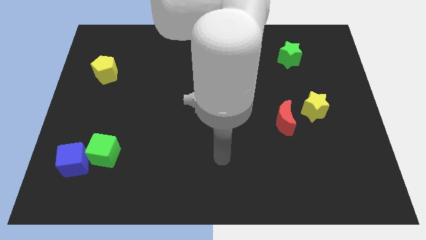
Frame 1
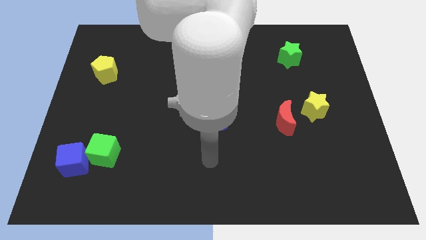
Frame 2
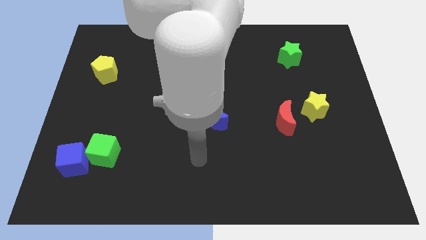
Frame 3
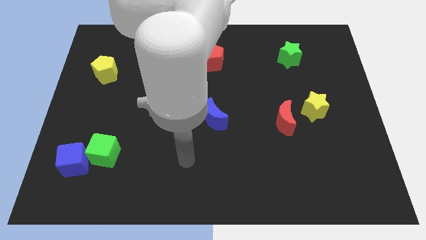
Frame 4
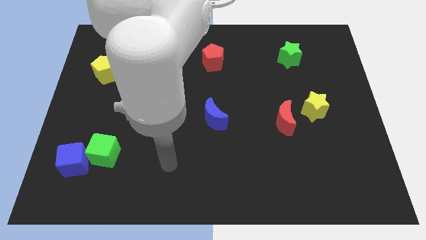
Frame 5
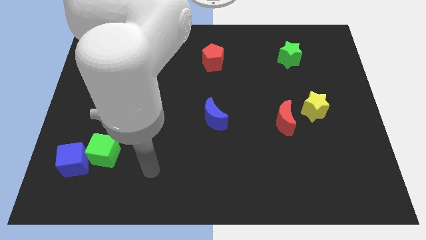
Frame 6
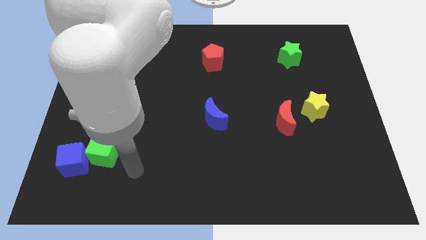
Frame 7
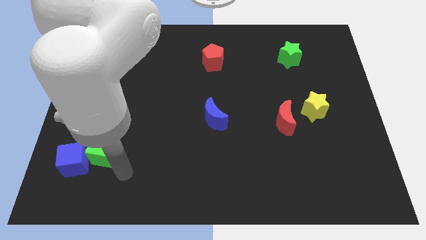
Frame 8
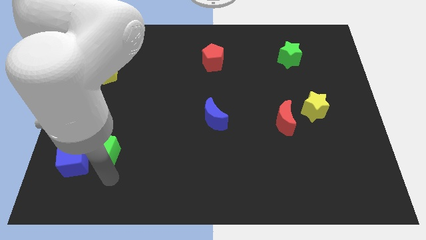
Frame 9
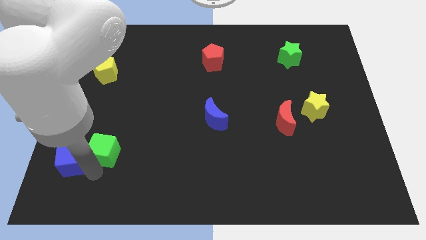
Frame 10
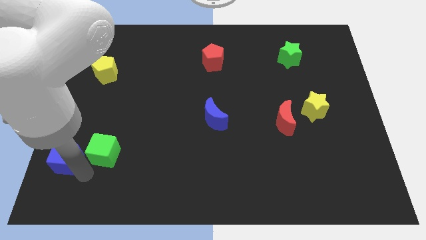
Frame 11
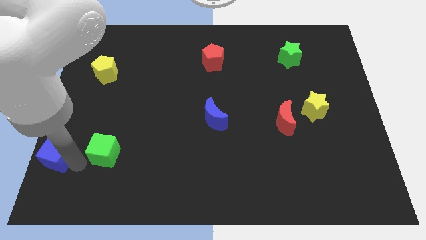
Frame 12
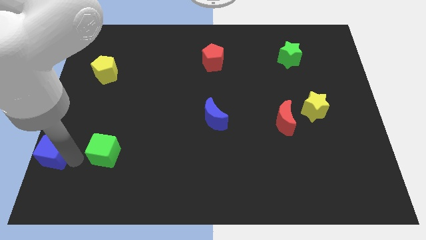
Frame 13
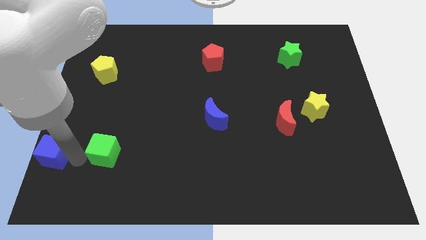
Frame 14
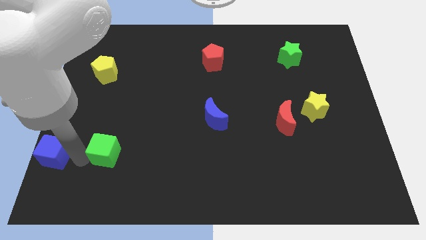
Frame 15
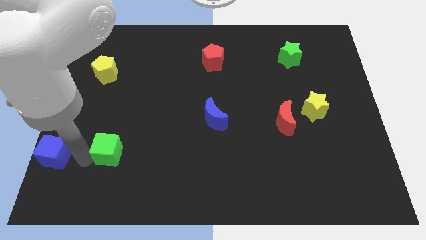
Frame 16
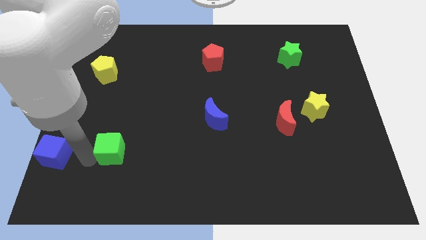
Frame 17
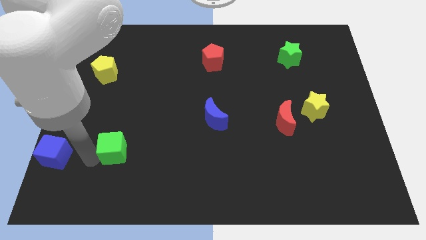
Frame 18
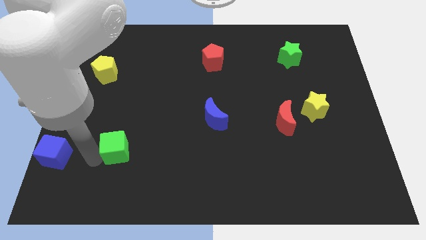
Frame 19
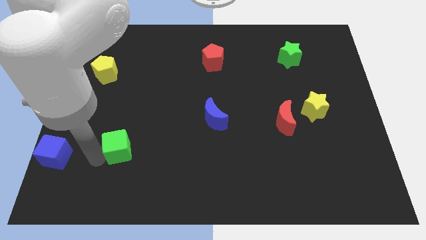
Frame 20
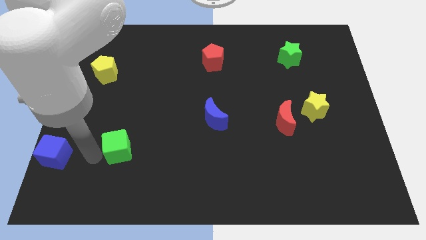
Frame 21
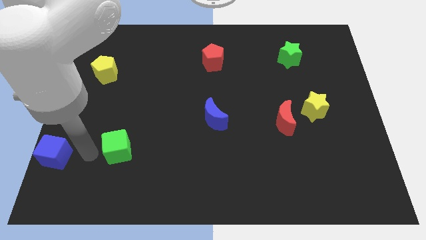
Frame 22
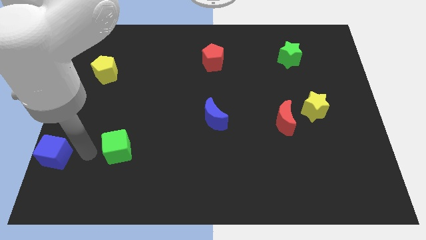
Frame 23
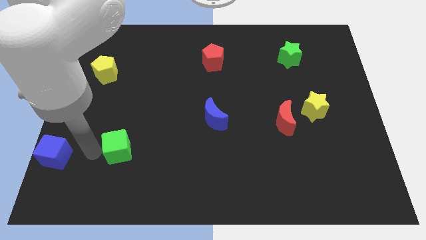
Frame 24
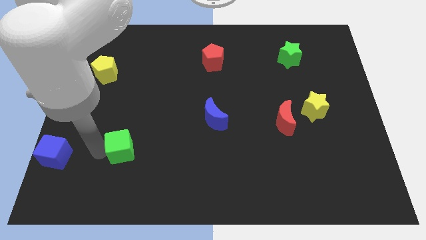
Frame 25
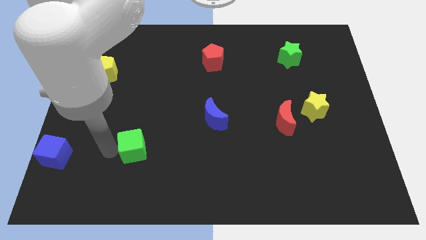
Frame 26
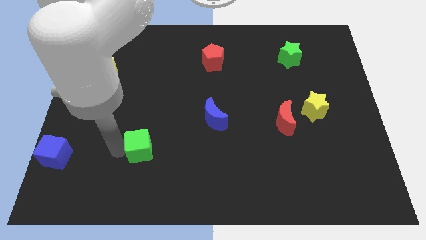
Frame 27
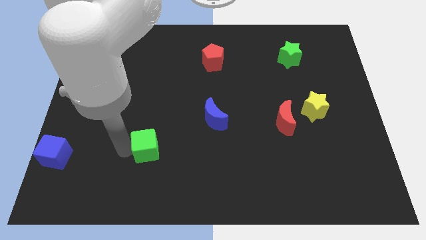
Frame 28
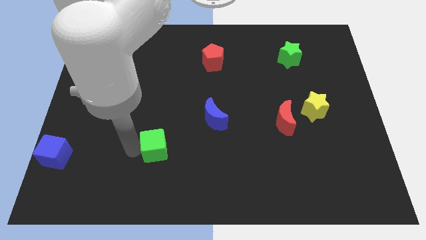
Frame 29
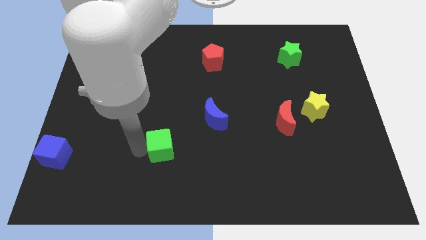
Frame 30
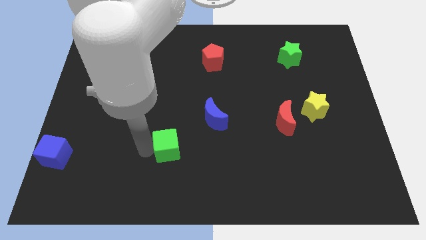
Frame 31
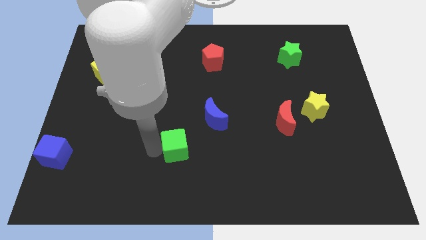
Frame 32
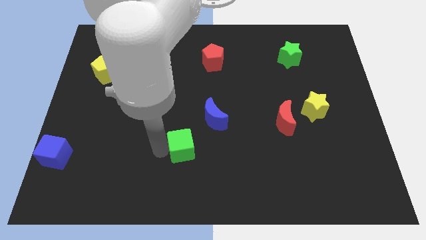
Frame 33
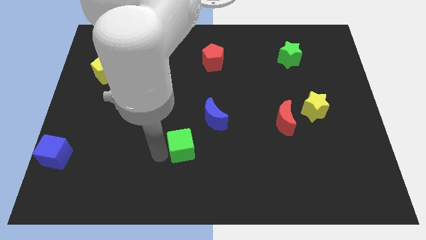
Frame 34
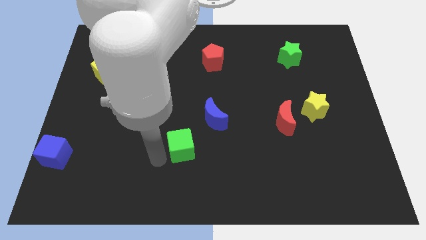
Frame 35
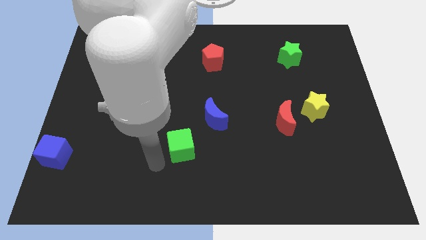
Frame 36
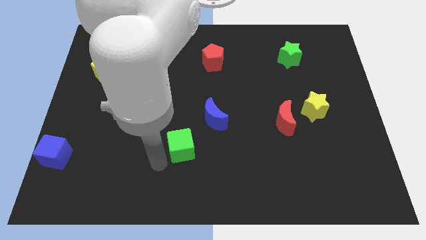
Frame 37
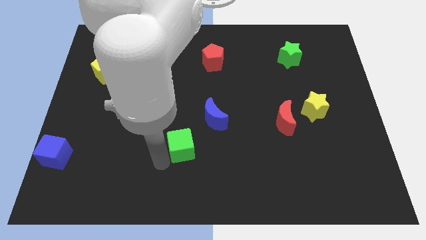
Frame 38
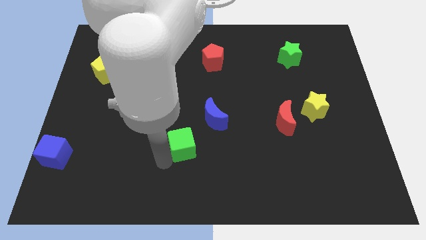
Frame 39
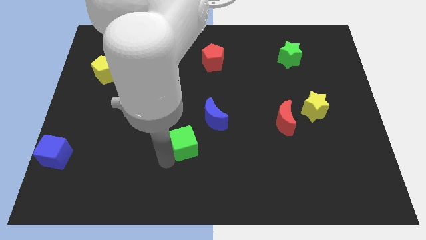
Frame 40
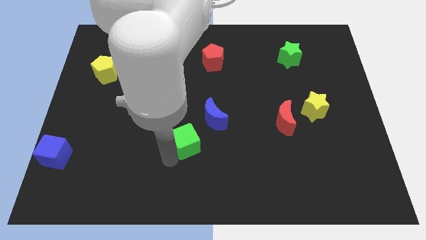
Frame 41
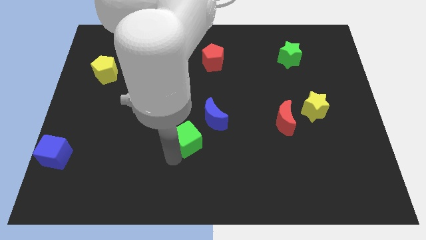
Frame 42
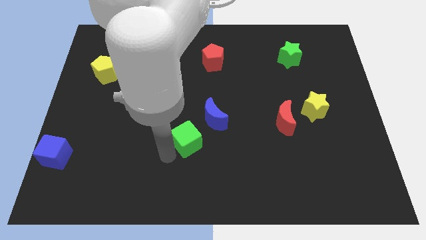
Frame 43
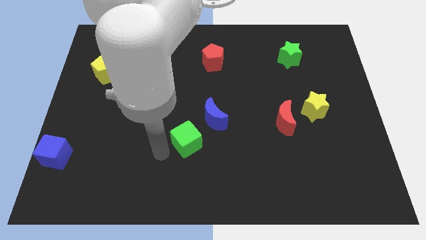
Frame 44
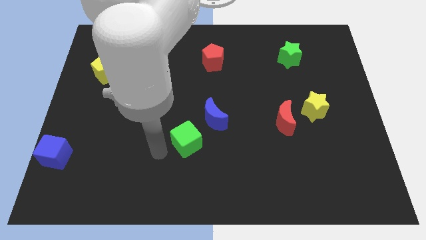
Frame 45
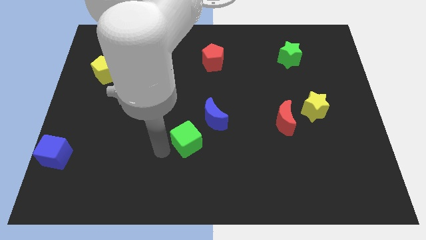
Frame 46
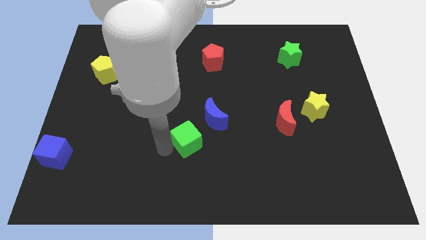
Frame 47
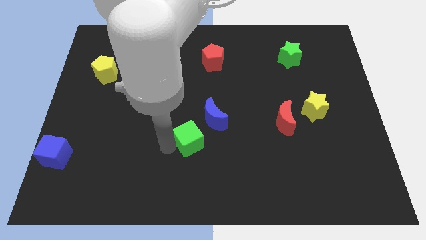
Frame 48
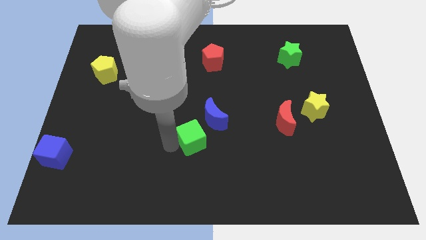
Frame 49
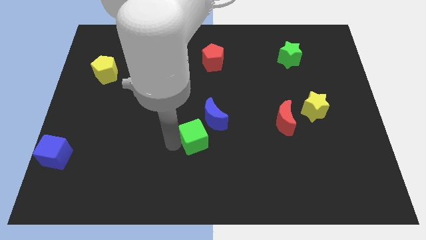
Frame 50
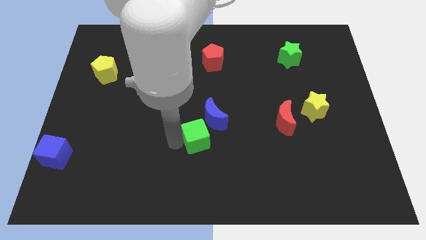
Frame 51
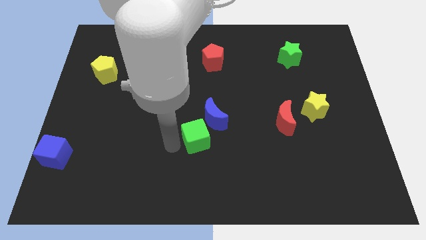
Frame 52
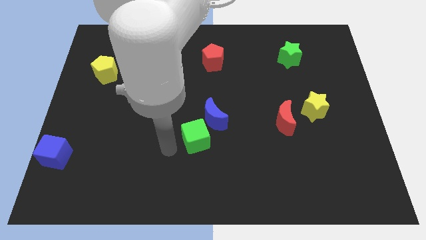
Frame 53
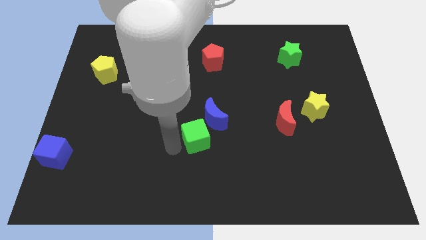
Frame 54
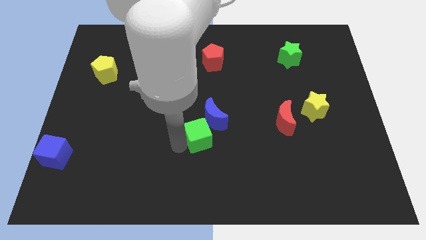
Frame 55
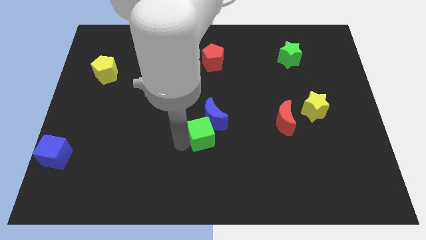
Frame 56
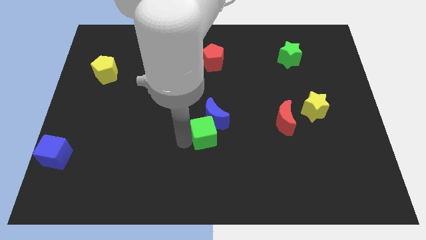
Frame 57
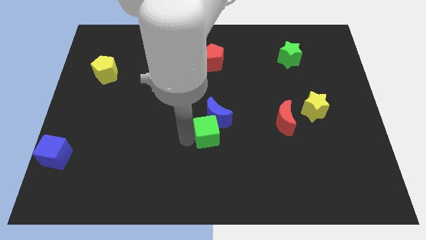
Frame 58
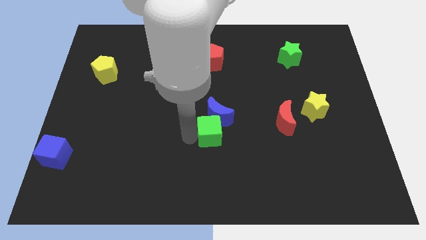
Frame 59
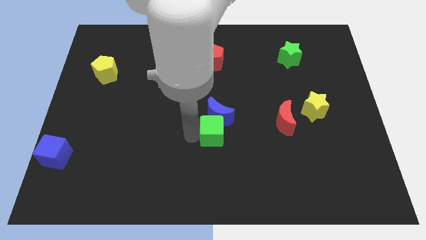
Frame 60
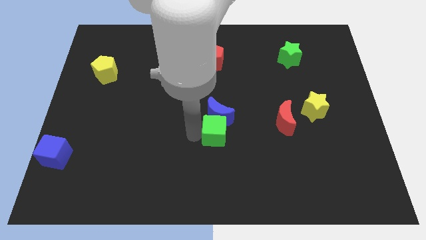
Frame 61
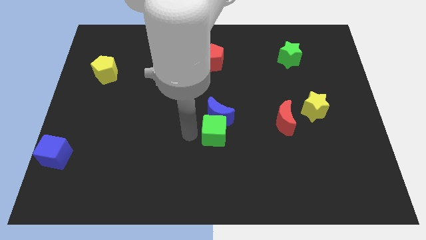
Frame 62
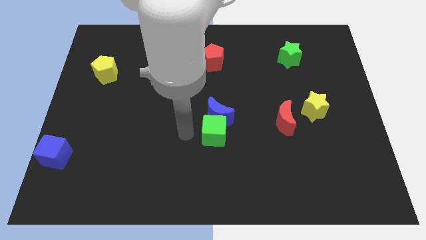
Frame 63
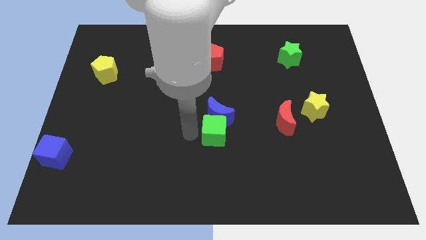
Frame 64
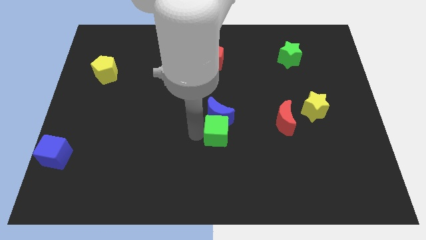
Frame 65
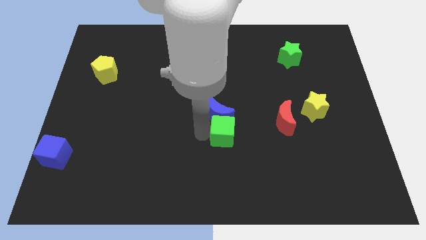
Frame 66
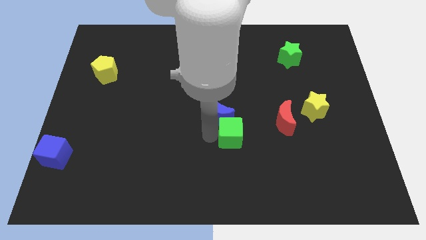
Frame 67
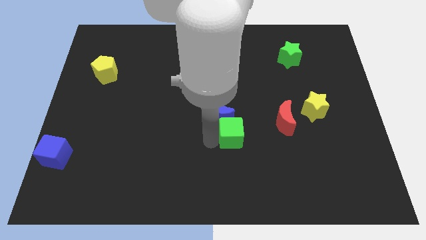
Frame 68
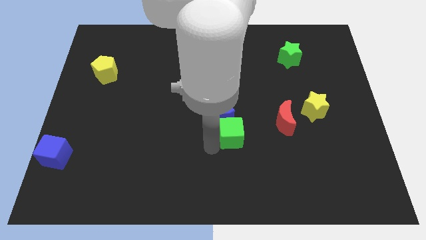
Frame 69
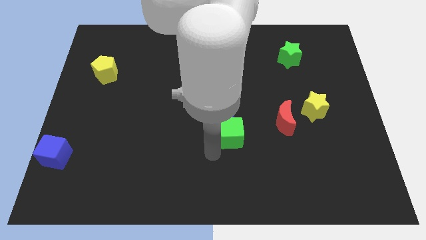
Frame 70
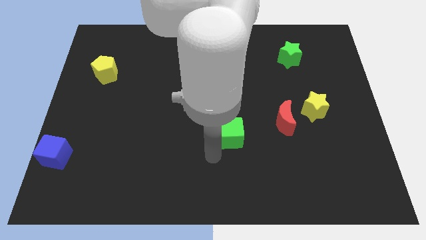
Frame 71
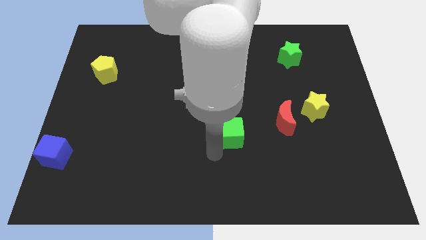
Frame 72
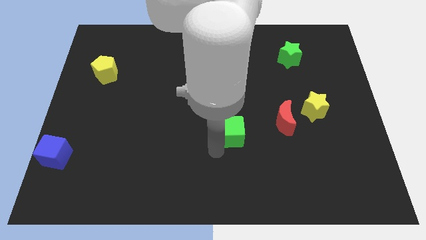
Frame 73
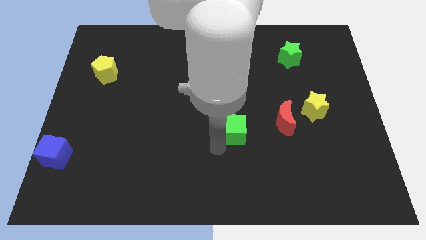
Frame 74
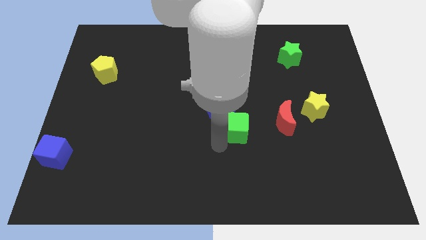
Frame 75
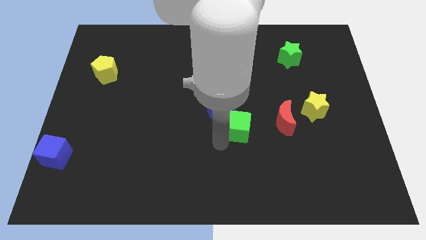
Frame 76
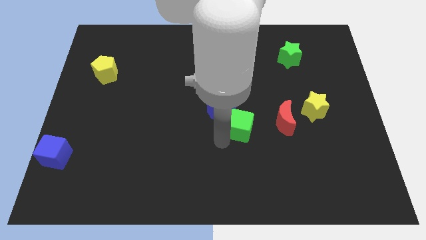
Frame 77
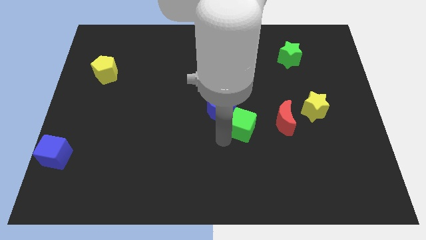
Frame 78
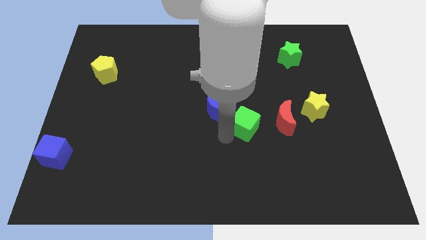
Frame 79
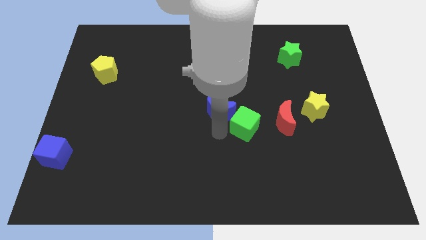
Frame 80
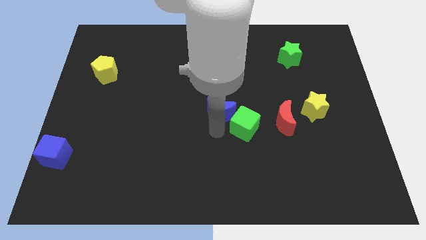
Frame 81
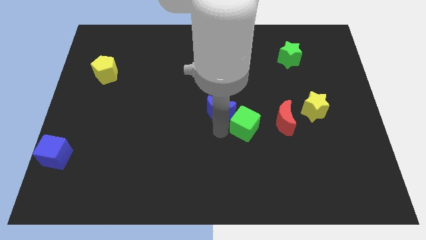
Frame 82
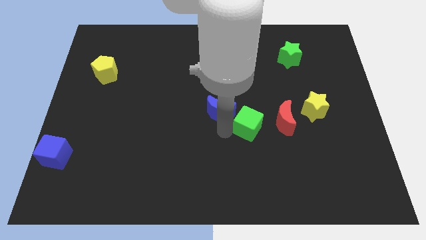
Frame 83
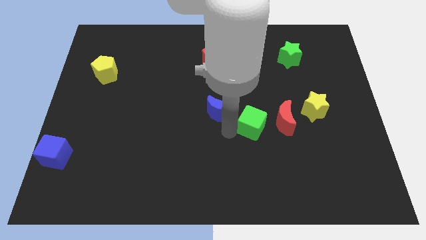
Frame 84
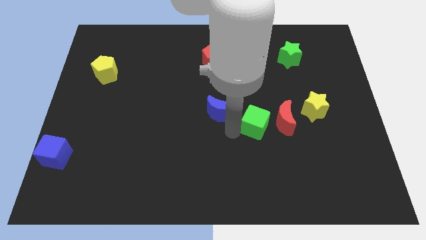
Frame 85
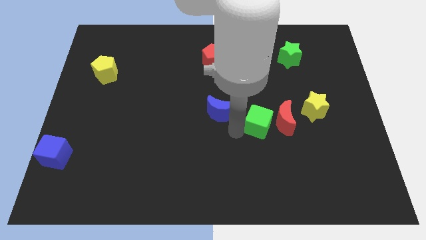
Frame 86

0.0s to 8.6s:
push the green cube to the red moon
